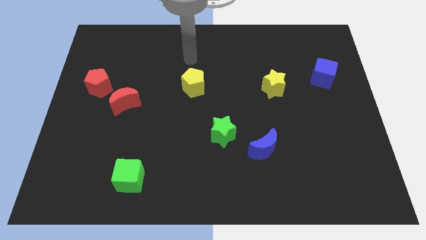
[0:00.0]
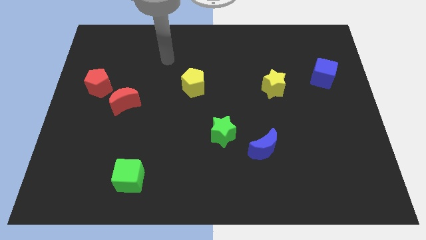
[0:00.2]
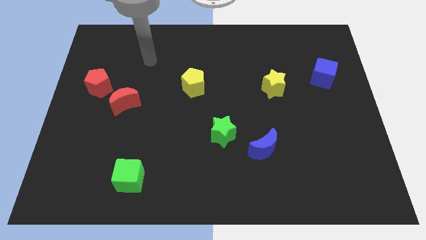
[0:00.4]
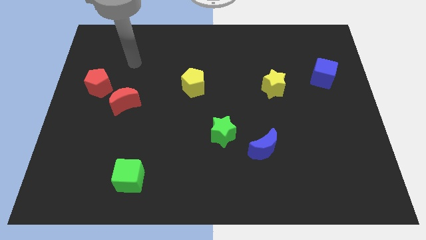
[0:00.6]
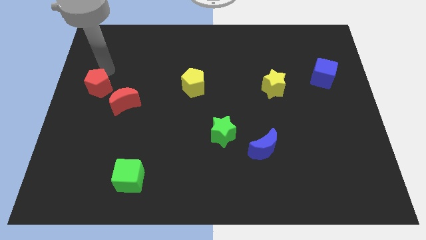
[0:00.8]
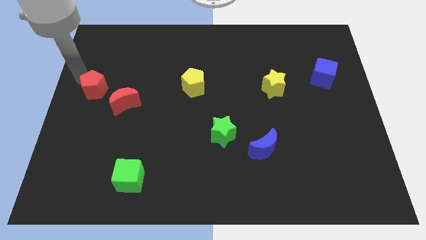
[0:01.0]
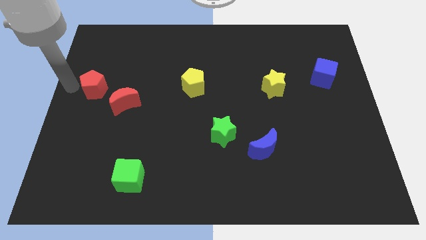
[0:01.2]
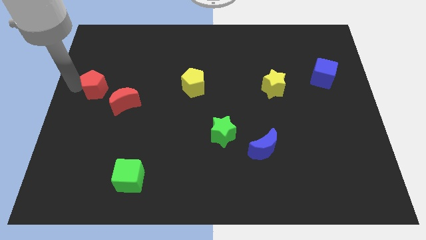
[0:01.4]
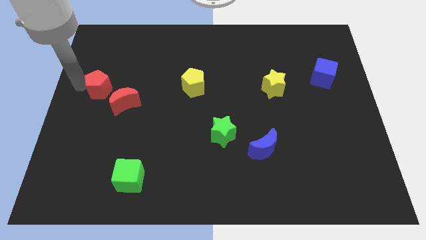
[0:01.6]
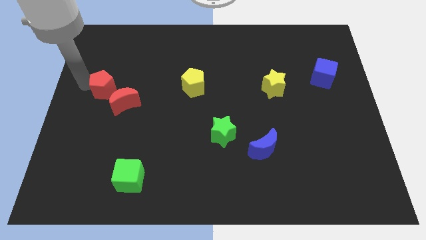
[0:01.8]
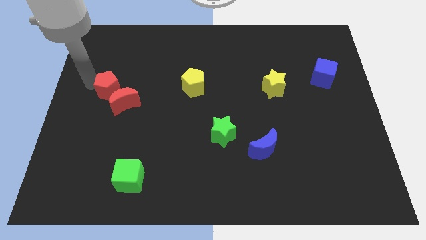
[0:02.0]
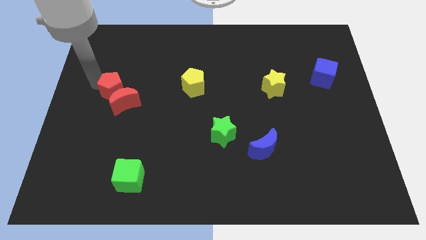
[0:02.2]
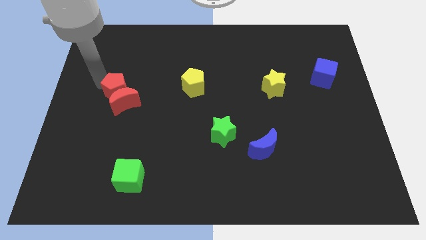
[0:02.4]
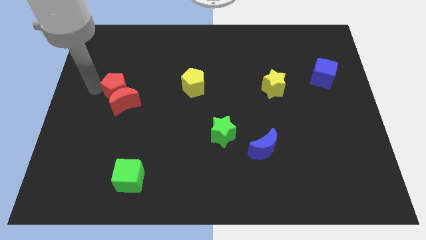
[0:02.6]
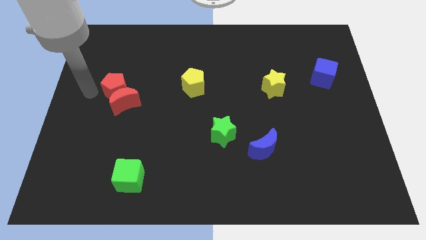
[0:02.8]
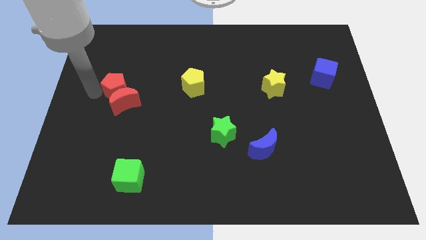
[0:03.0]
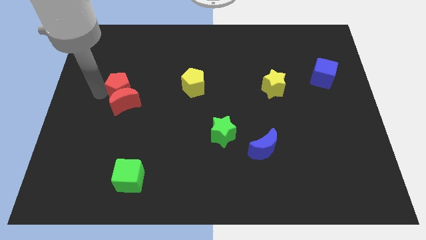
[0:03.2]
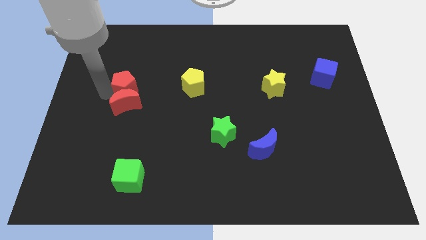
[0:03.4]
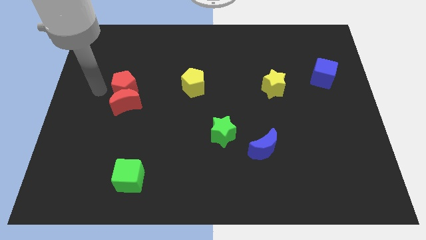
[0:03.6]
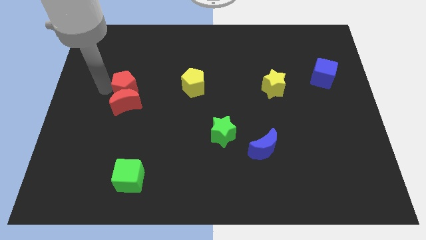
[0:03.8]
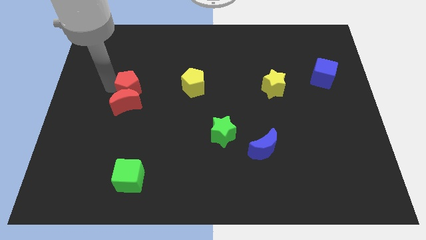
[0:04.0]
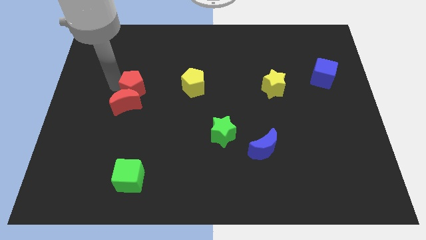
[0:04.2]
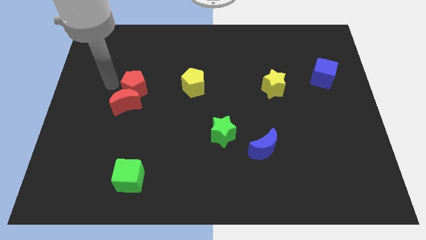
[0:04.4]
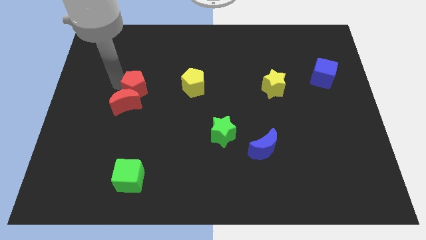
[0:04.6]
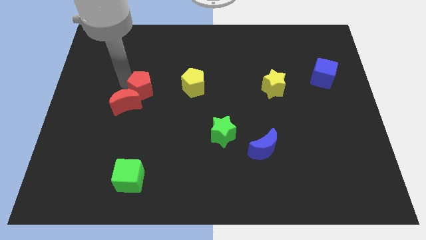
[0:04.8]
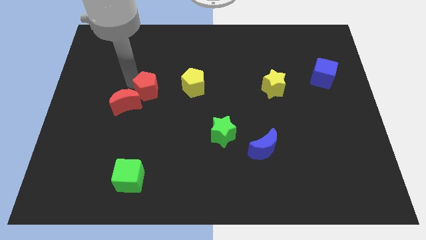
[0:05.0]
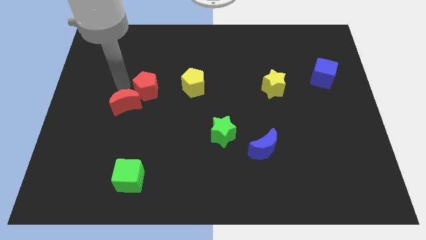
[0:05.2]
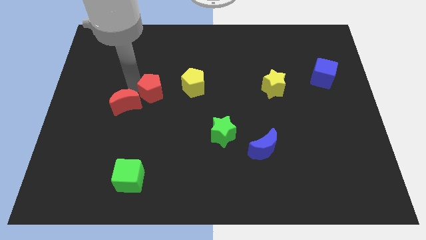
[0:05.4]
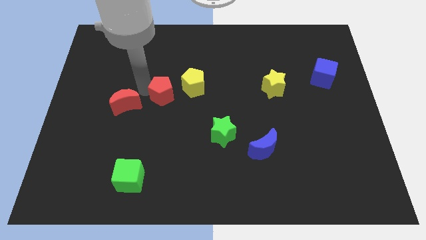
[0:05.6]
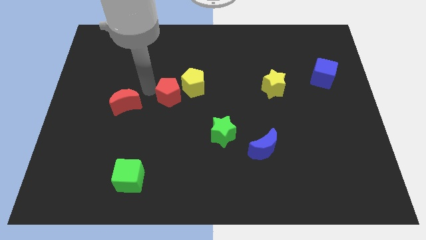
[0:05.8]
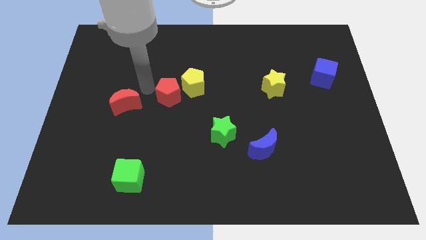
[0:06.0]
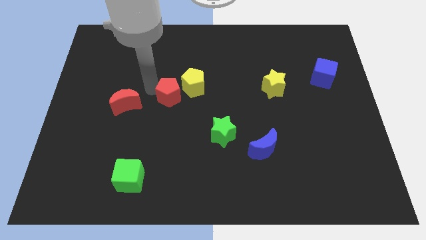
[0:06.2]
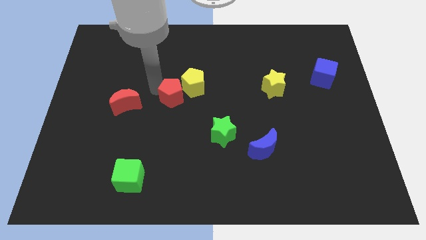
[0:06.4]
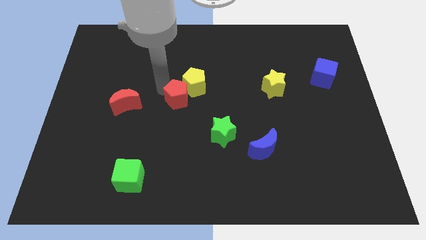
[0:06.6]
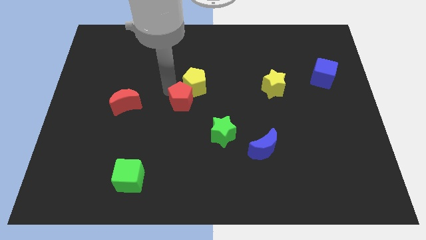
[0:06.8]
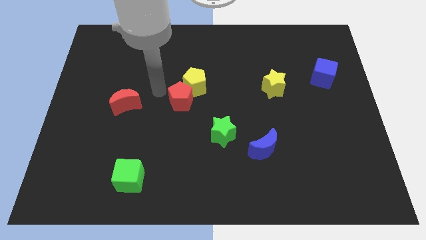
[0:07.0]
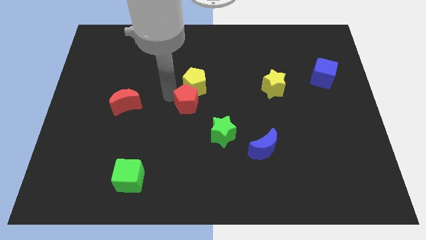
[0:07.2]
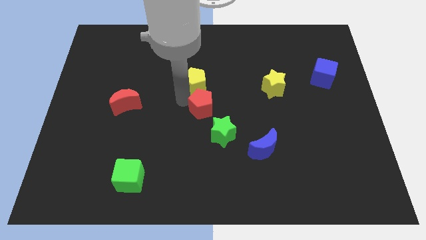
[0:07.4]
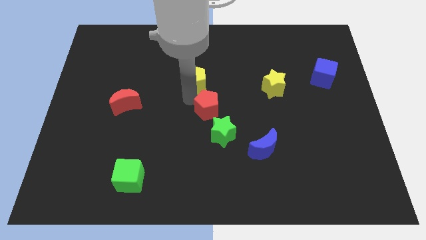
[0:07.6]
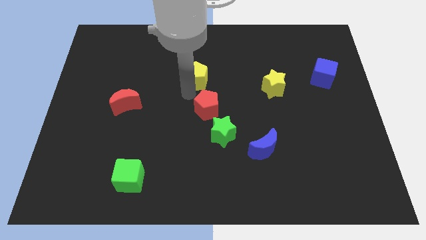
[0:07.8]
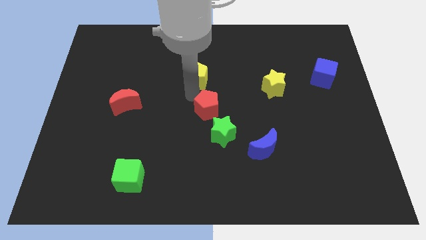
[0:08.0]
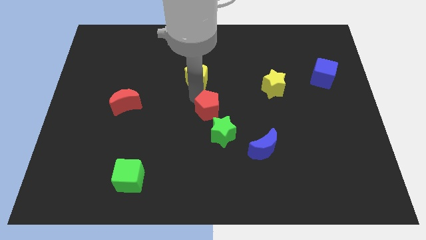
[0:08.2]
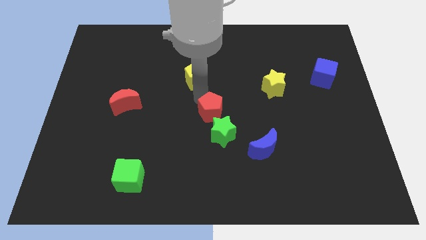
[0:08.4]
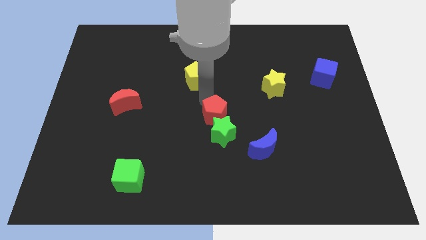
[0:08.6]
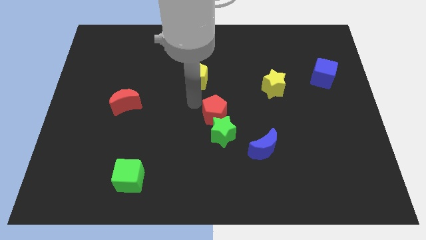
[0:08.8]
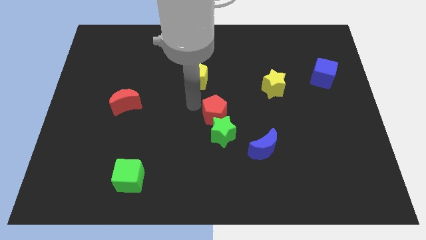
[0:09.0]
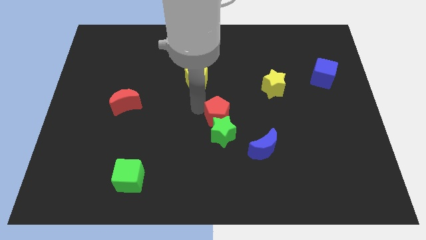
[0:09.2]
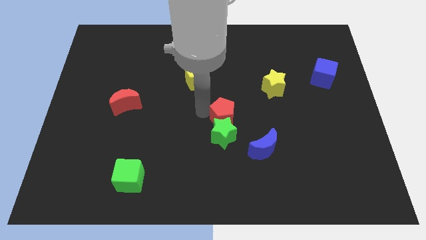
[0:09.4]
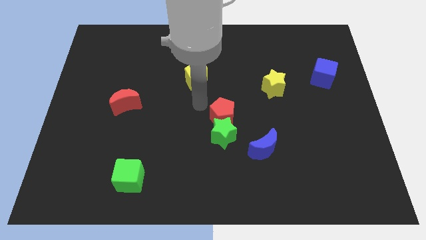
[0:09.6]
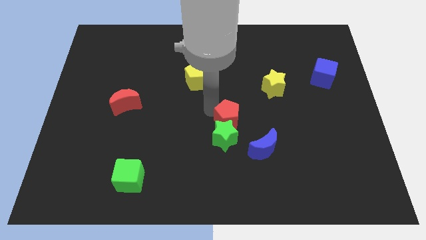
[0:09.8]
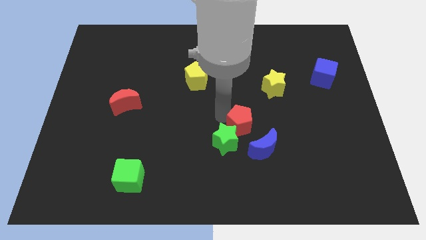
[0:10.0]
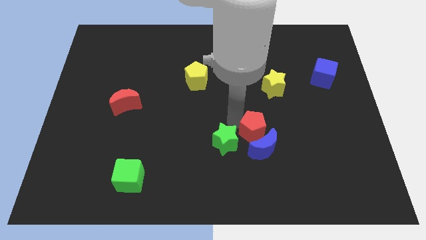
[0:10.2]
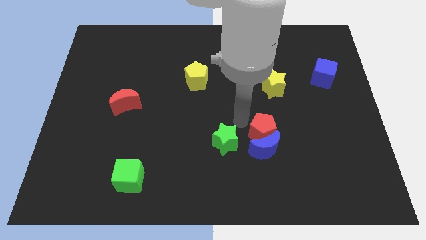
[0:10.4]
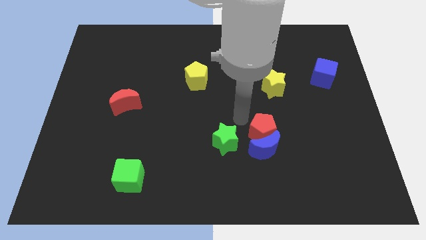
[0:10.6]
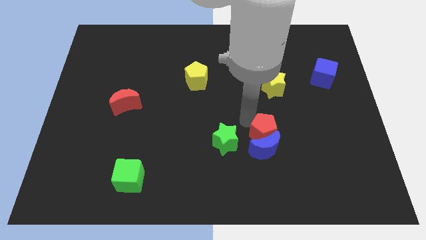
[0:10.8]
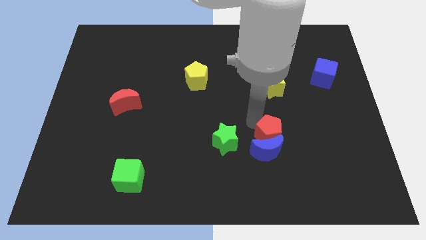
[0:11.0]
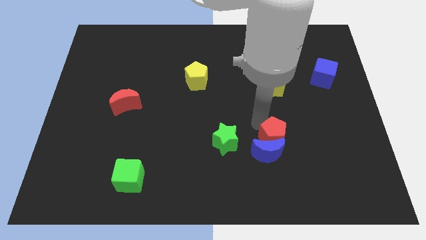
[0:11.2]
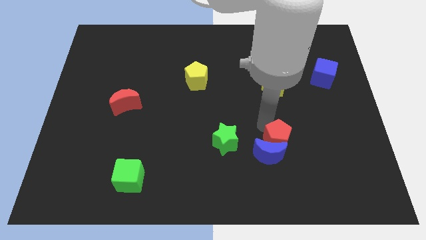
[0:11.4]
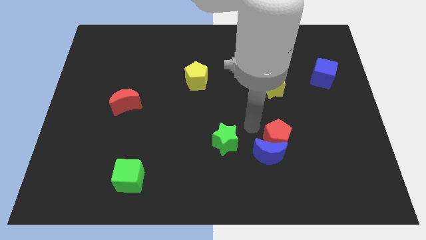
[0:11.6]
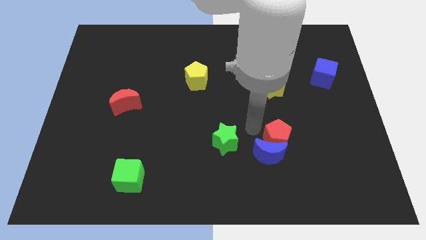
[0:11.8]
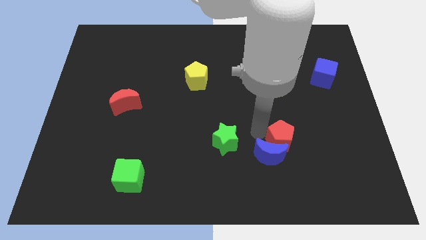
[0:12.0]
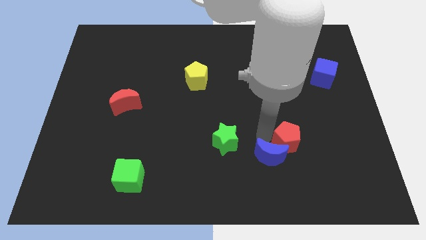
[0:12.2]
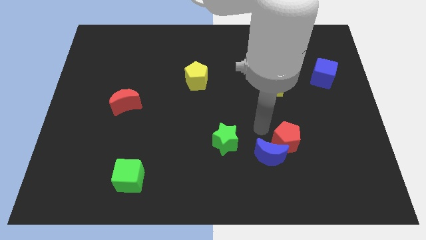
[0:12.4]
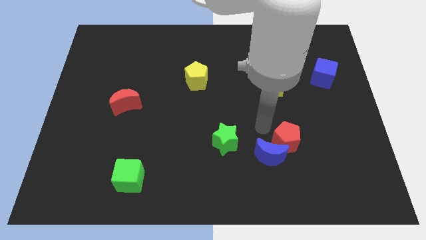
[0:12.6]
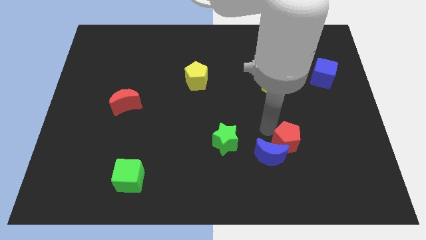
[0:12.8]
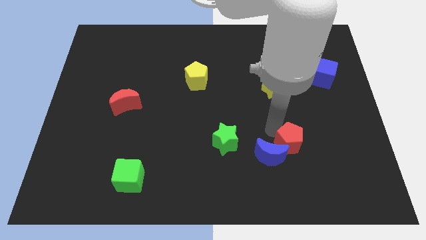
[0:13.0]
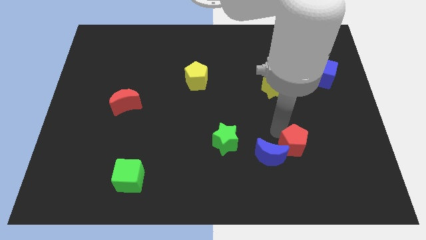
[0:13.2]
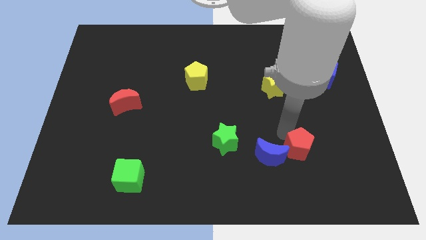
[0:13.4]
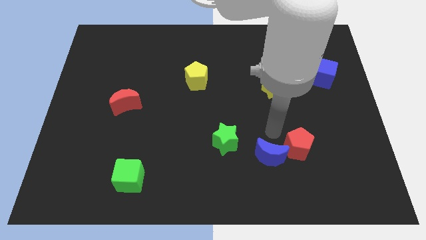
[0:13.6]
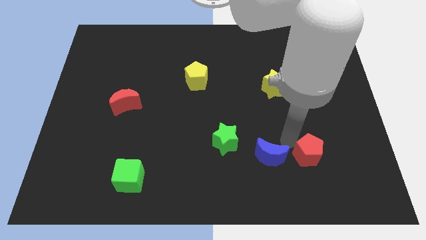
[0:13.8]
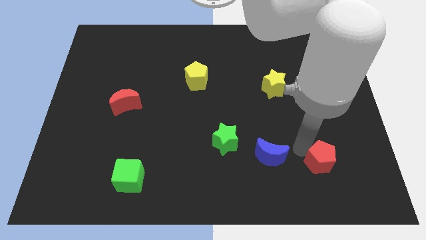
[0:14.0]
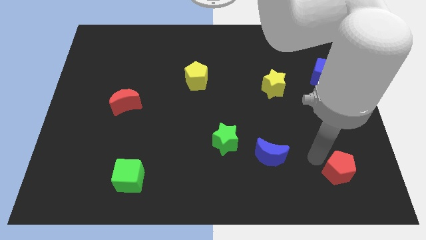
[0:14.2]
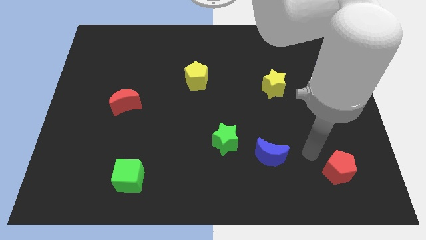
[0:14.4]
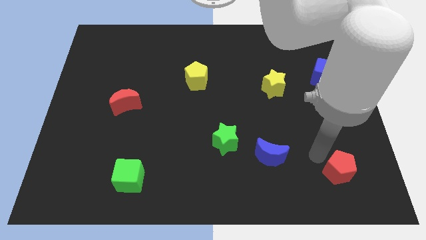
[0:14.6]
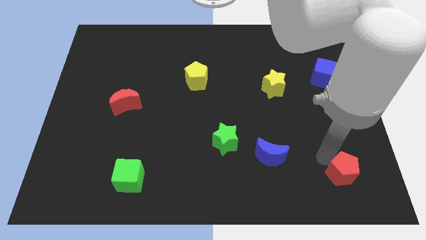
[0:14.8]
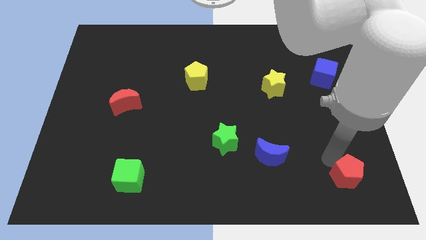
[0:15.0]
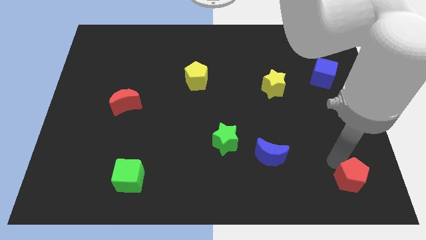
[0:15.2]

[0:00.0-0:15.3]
move the red pentagon to the bottom right of the board
